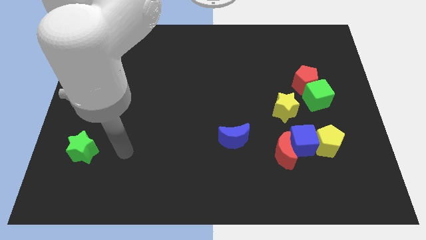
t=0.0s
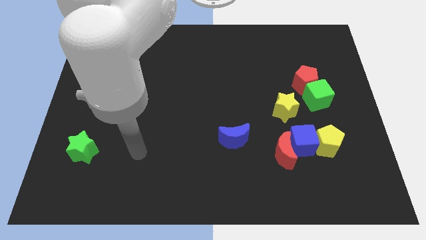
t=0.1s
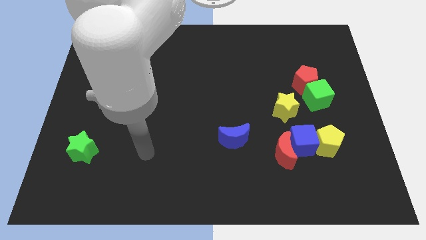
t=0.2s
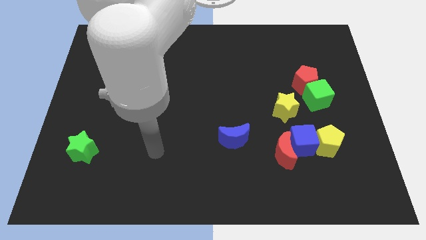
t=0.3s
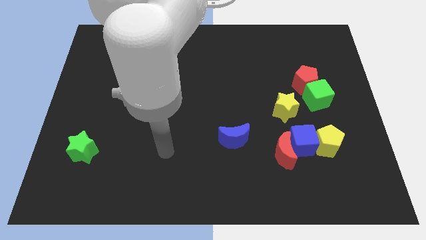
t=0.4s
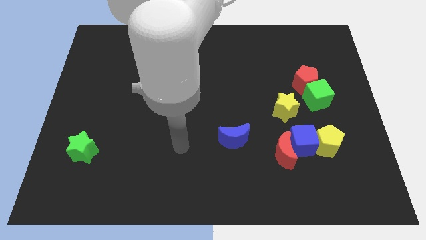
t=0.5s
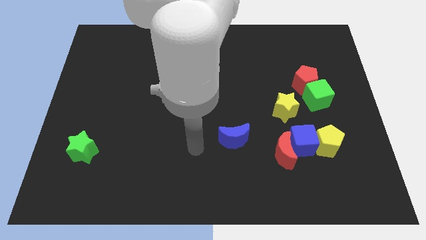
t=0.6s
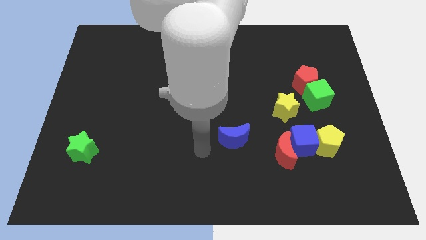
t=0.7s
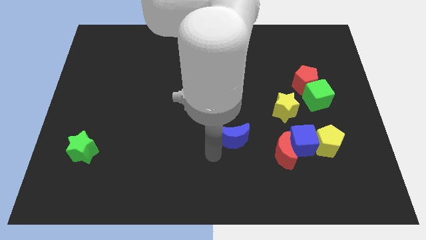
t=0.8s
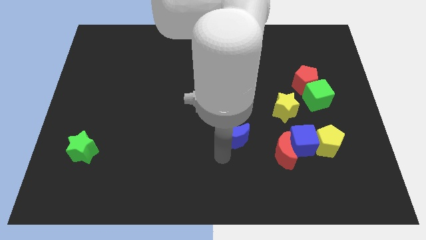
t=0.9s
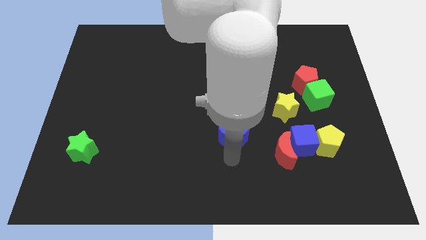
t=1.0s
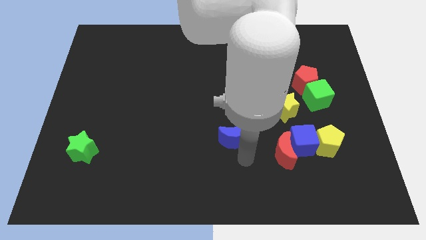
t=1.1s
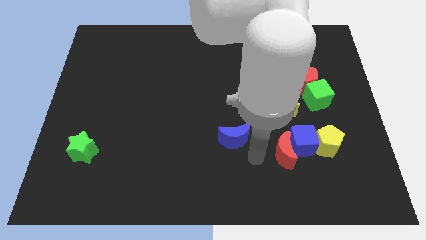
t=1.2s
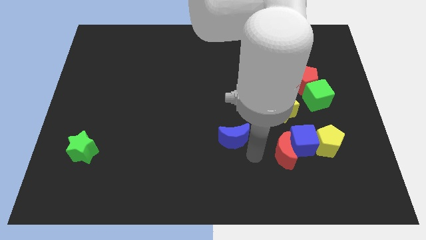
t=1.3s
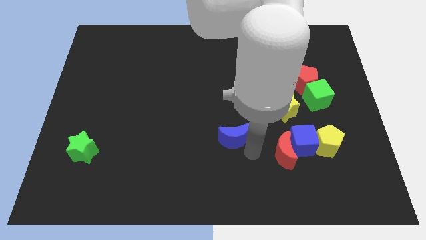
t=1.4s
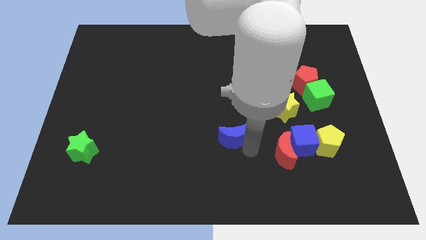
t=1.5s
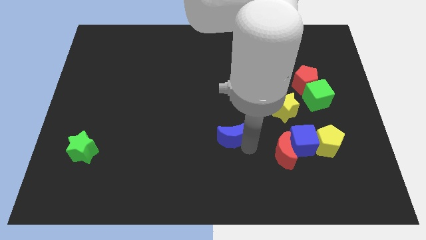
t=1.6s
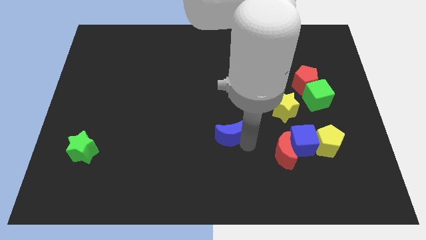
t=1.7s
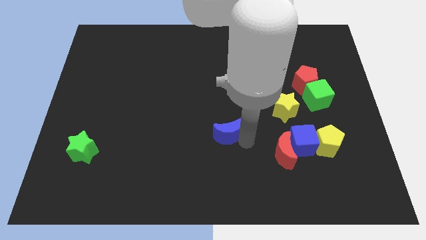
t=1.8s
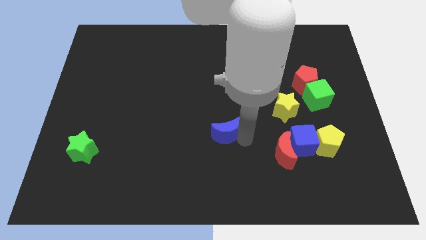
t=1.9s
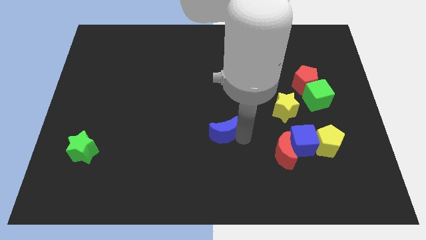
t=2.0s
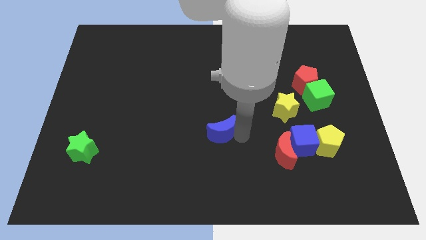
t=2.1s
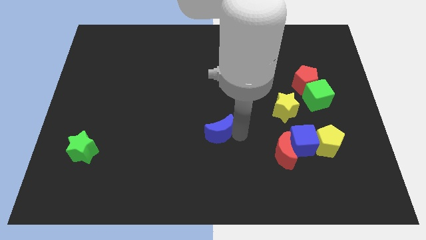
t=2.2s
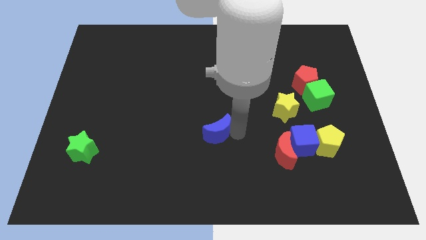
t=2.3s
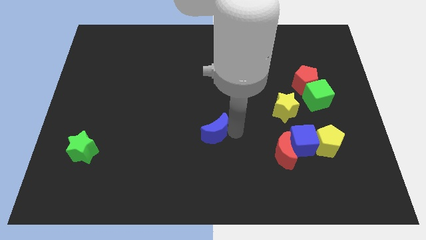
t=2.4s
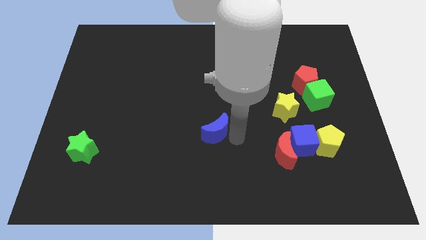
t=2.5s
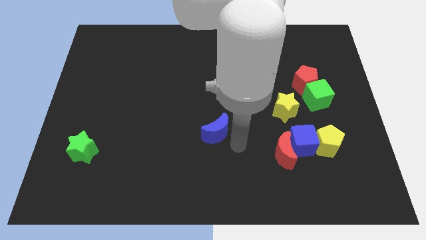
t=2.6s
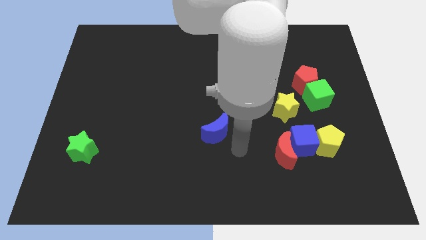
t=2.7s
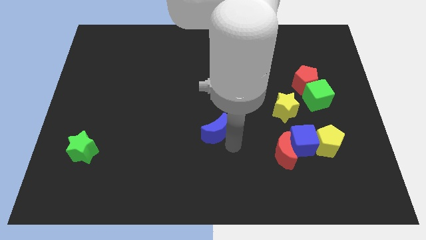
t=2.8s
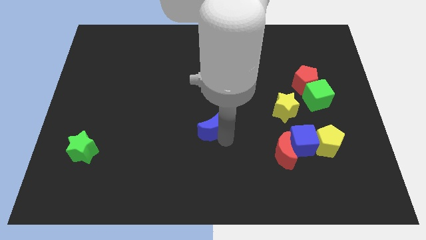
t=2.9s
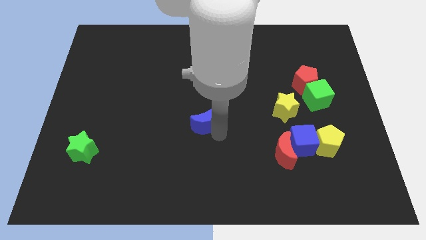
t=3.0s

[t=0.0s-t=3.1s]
push the blue moon upwards and to the left a little

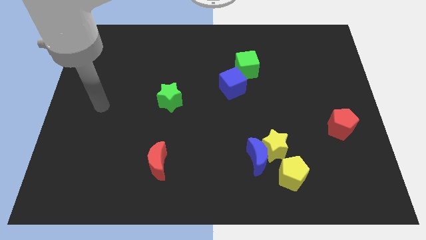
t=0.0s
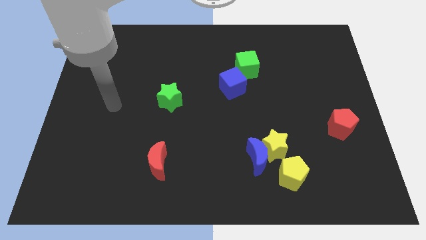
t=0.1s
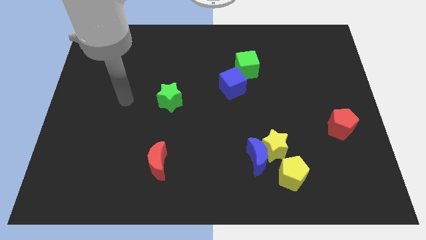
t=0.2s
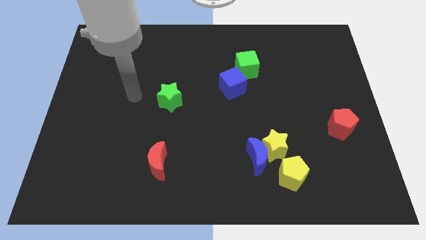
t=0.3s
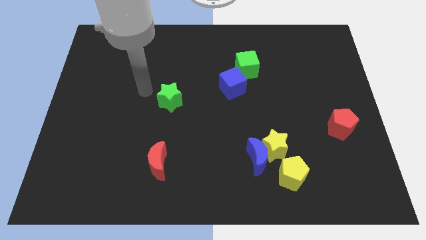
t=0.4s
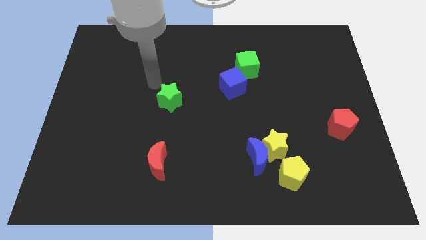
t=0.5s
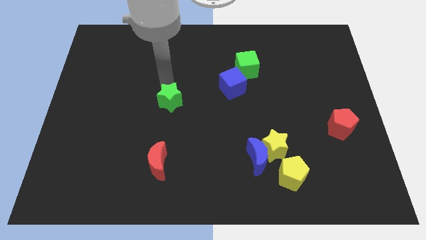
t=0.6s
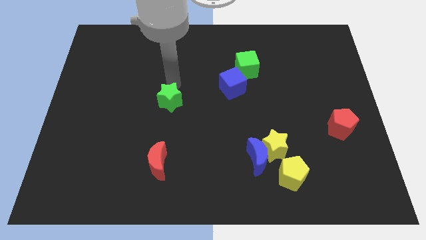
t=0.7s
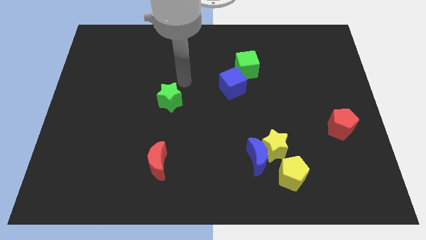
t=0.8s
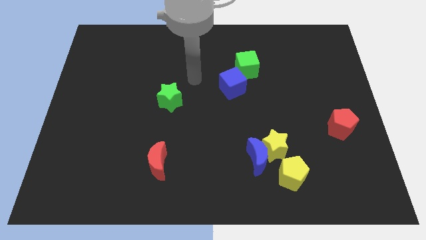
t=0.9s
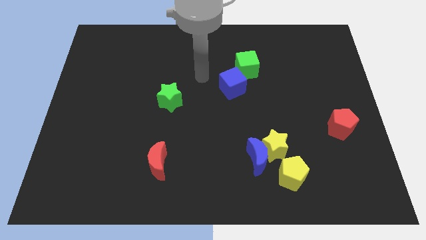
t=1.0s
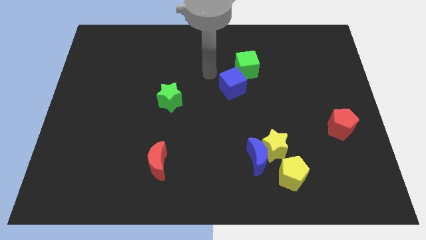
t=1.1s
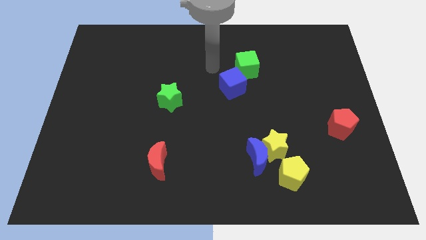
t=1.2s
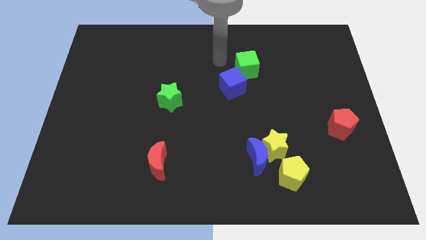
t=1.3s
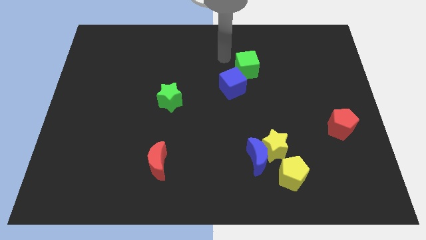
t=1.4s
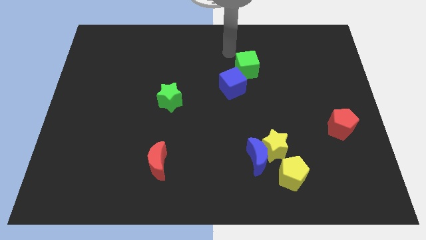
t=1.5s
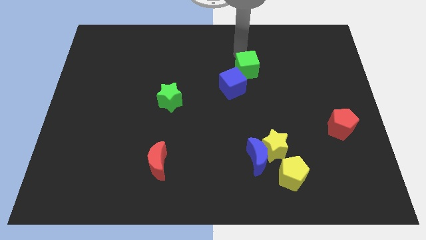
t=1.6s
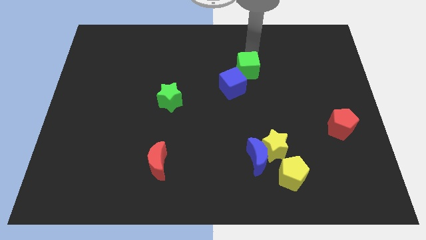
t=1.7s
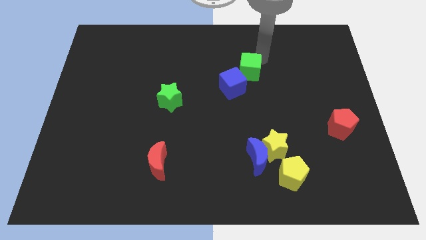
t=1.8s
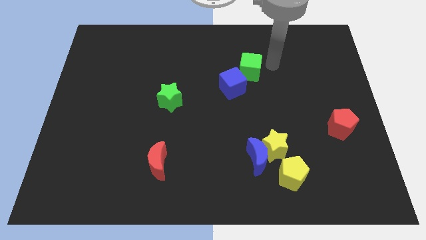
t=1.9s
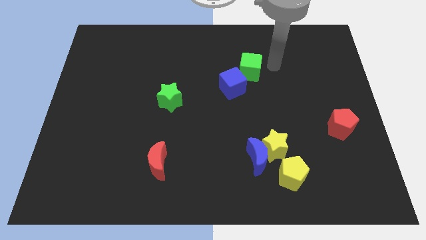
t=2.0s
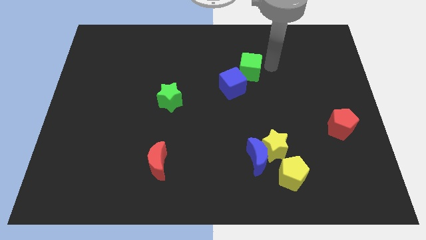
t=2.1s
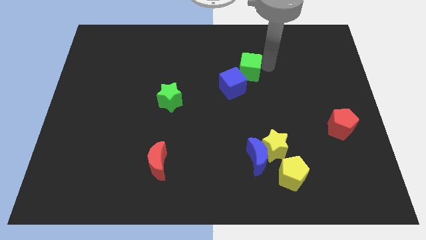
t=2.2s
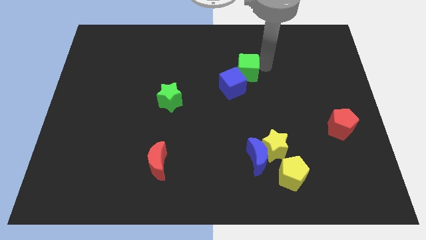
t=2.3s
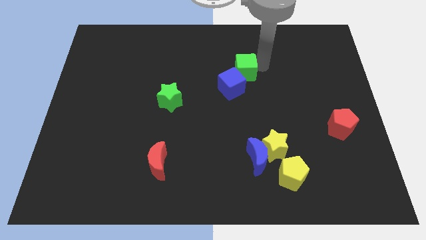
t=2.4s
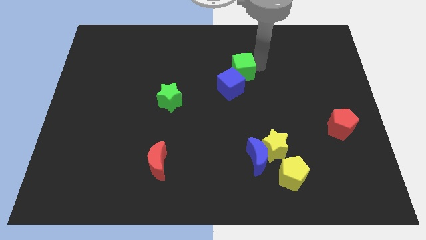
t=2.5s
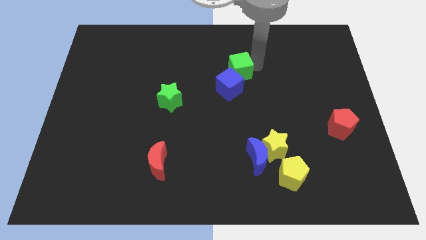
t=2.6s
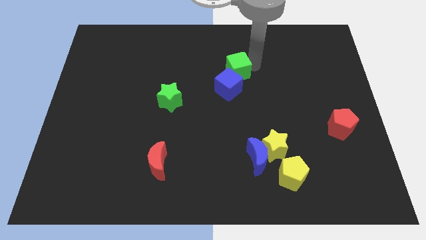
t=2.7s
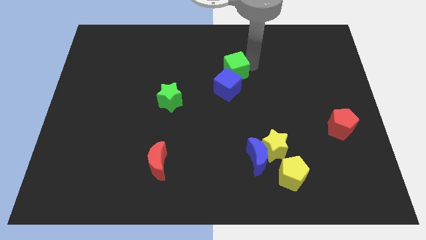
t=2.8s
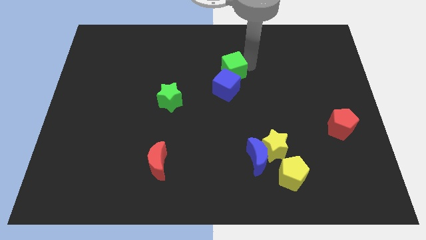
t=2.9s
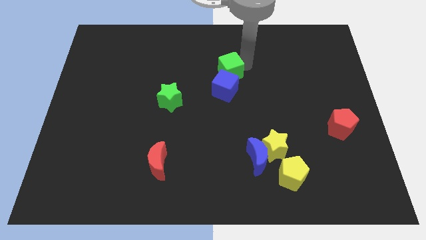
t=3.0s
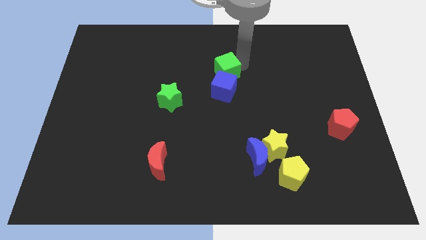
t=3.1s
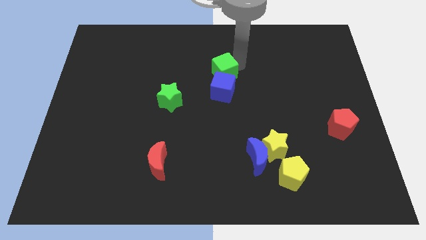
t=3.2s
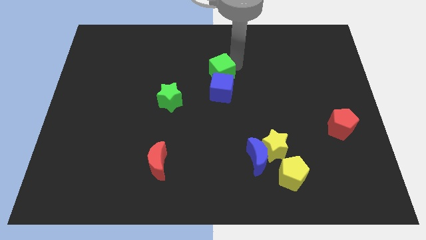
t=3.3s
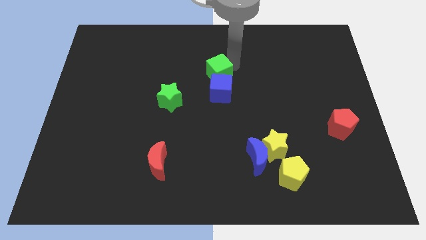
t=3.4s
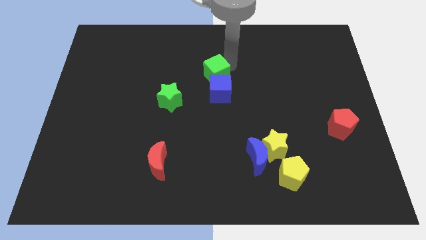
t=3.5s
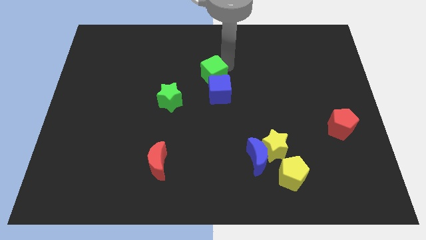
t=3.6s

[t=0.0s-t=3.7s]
push the green cube a bit down and then left

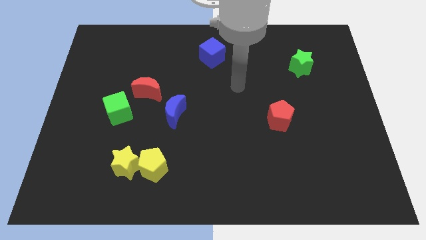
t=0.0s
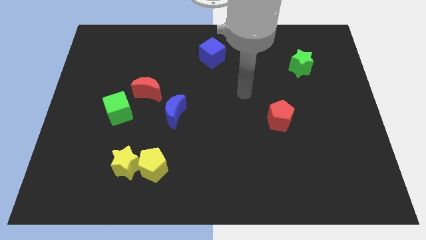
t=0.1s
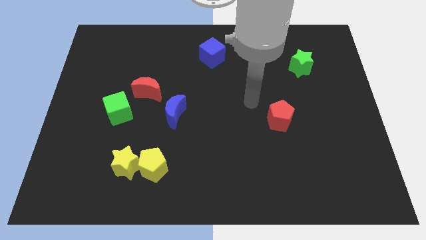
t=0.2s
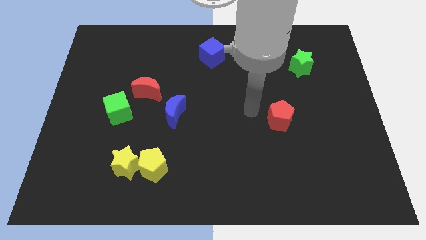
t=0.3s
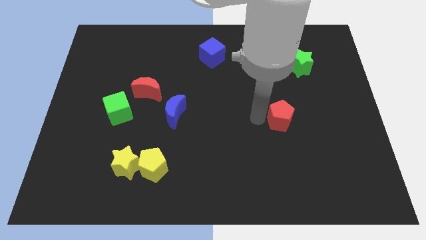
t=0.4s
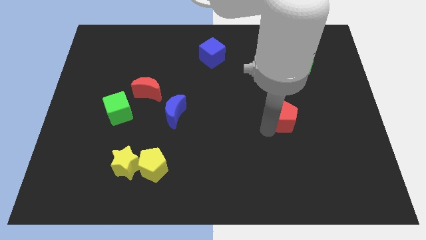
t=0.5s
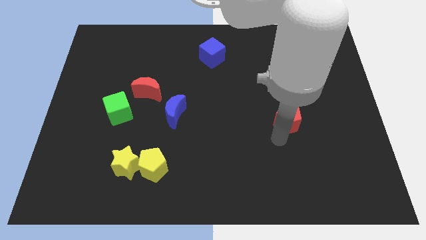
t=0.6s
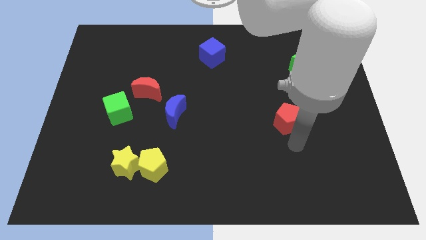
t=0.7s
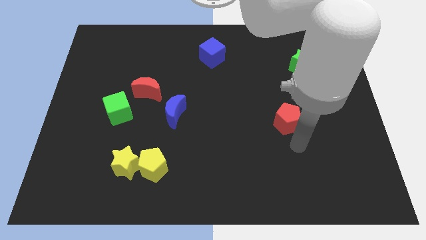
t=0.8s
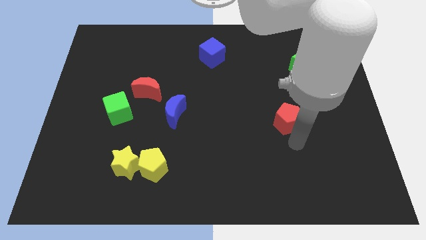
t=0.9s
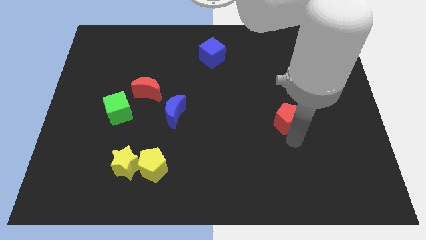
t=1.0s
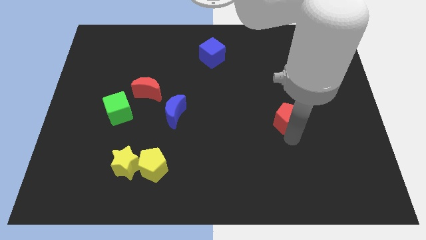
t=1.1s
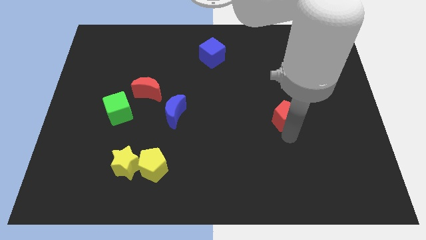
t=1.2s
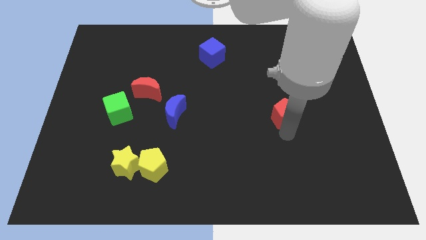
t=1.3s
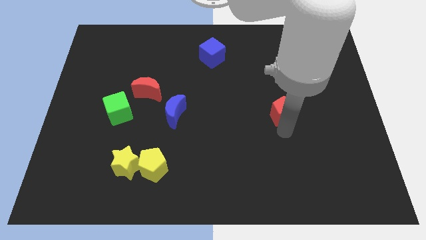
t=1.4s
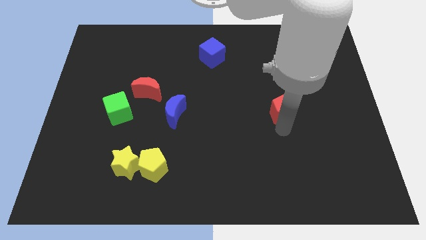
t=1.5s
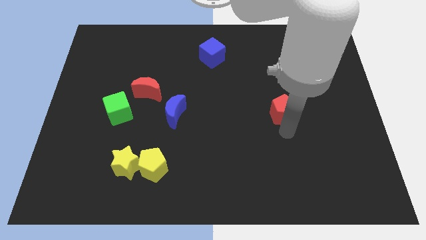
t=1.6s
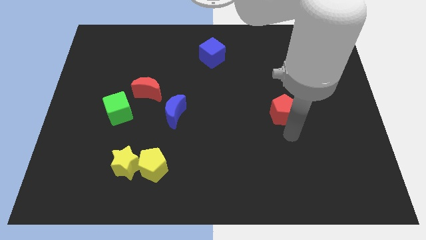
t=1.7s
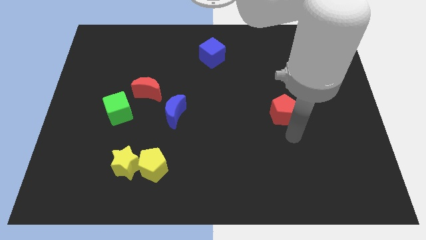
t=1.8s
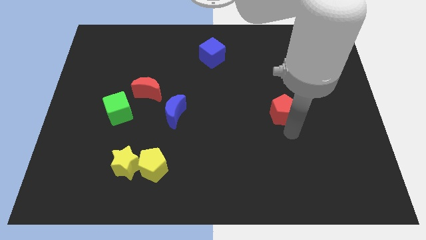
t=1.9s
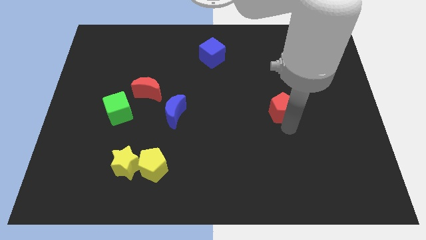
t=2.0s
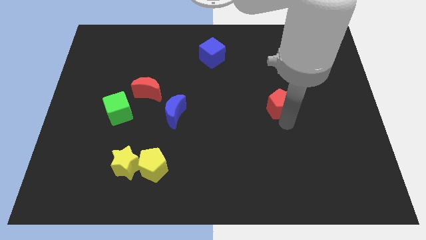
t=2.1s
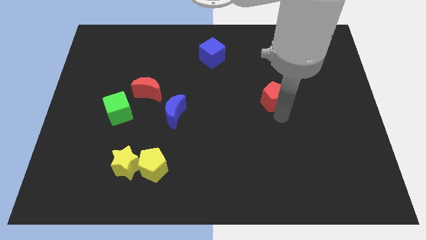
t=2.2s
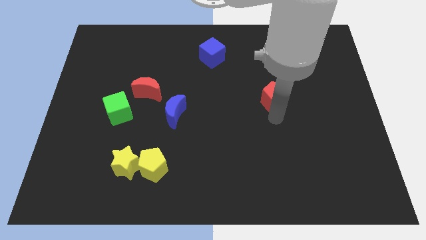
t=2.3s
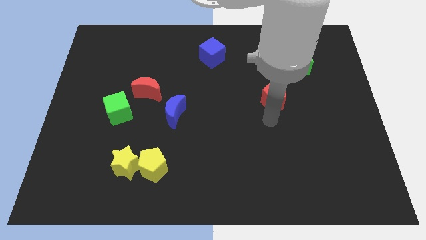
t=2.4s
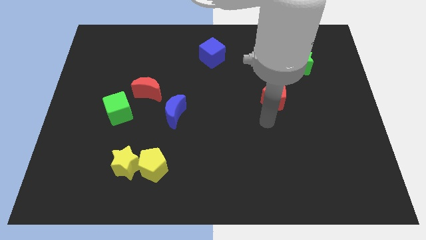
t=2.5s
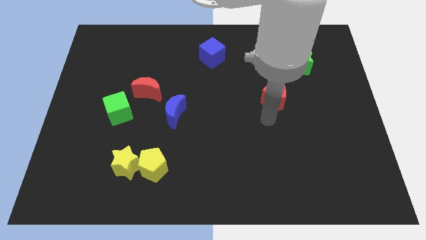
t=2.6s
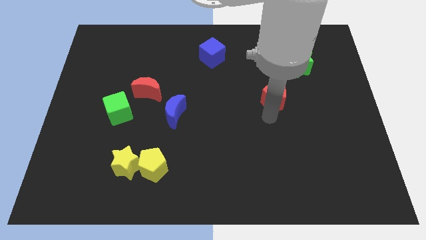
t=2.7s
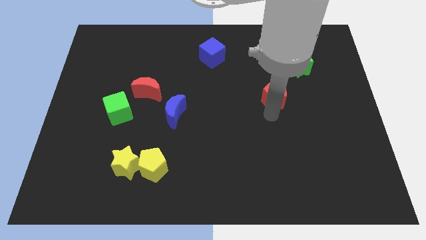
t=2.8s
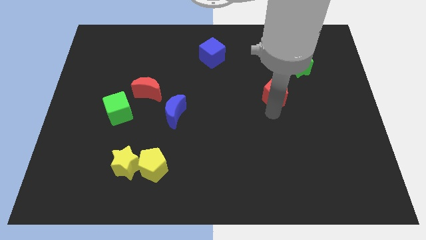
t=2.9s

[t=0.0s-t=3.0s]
slightly move the red pentagon up
